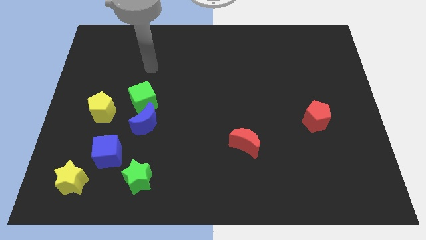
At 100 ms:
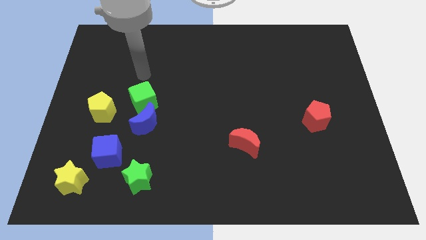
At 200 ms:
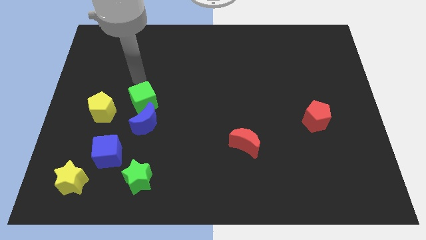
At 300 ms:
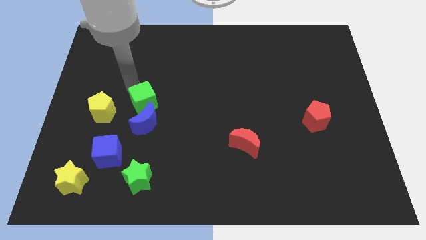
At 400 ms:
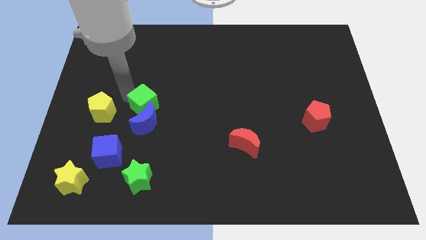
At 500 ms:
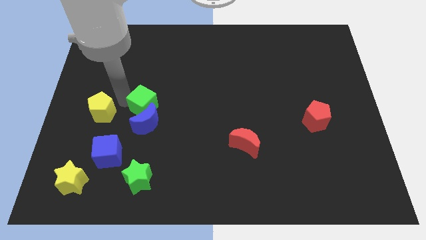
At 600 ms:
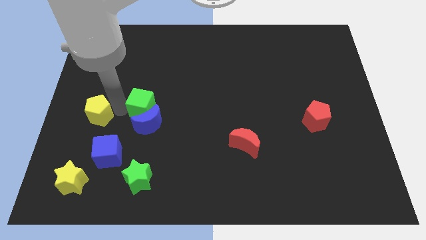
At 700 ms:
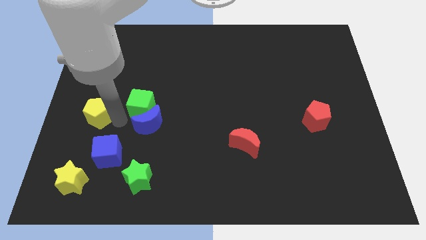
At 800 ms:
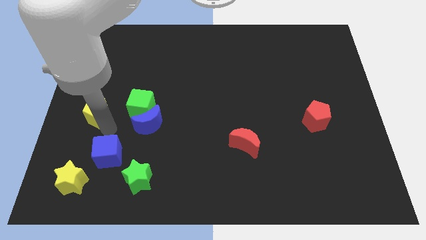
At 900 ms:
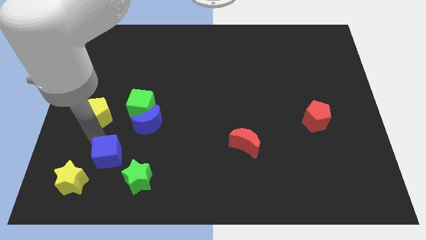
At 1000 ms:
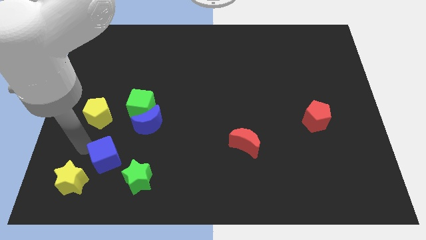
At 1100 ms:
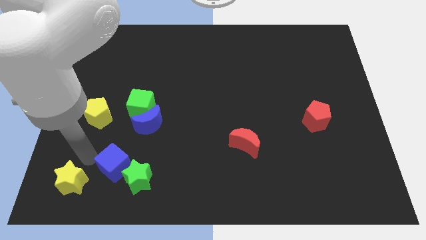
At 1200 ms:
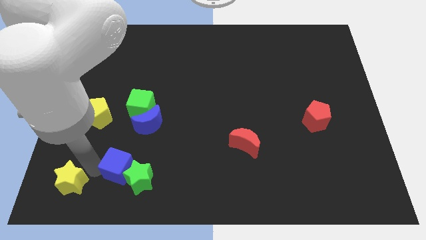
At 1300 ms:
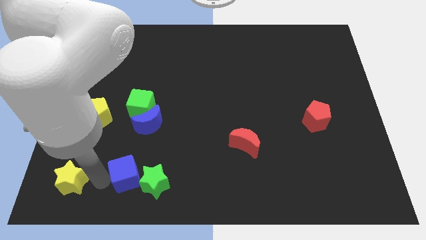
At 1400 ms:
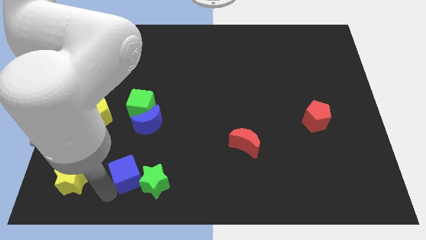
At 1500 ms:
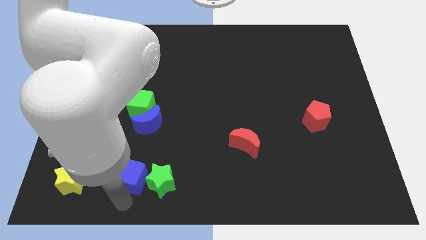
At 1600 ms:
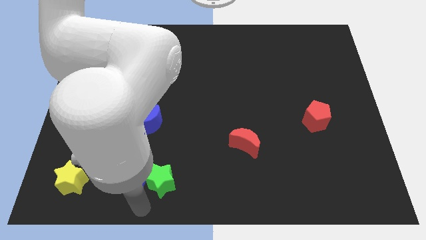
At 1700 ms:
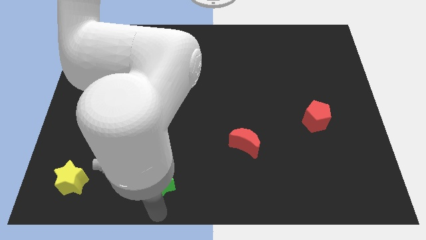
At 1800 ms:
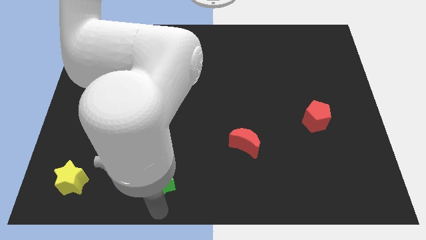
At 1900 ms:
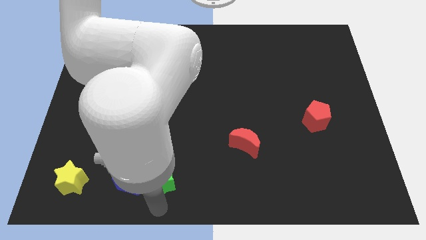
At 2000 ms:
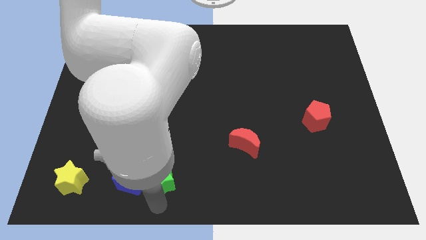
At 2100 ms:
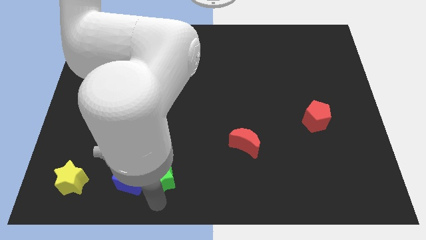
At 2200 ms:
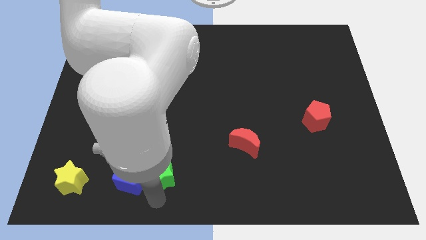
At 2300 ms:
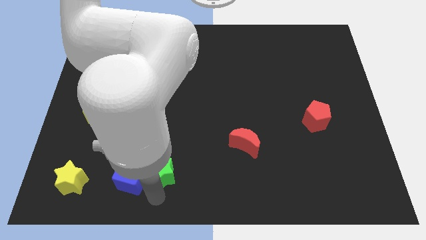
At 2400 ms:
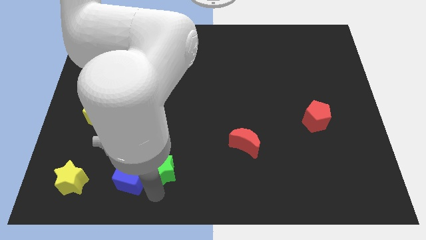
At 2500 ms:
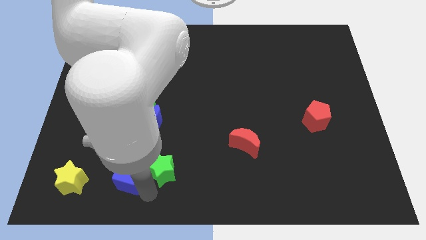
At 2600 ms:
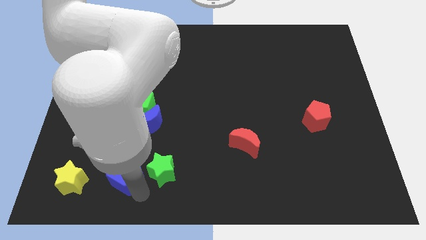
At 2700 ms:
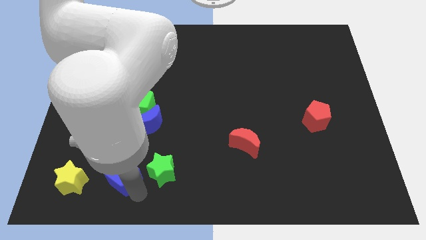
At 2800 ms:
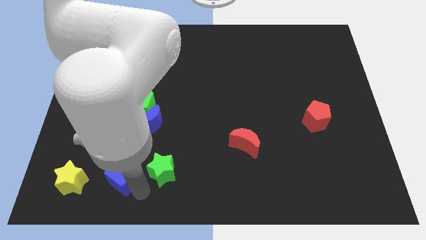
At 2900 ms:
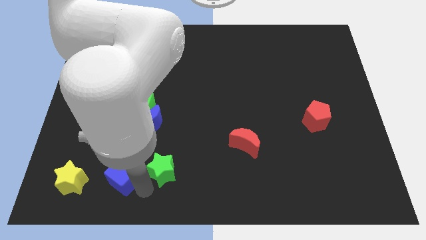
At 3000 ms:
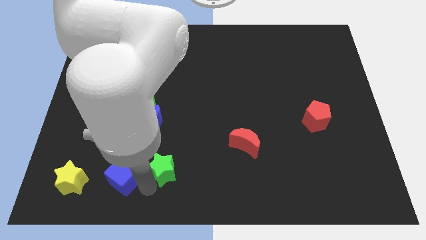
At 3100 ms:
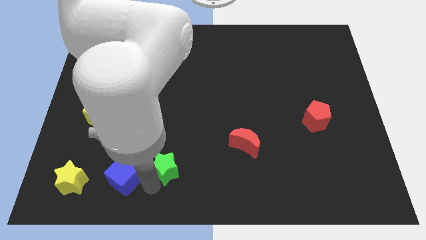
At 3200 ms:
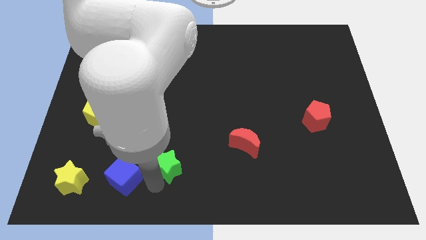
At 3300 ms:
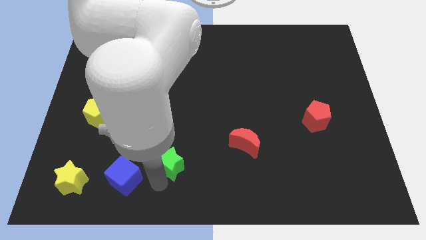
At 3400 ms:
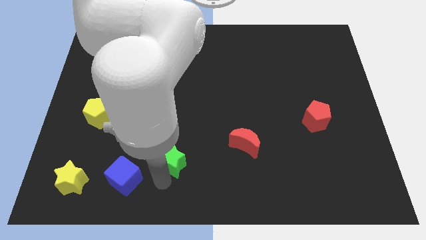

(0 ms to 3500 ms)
push the green star up and right diagonally a little bit

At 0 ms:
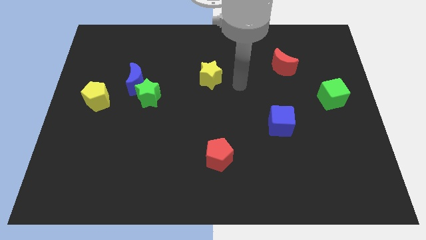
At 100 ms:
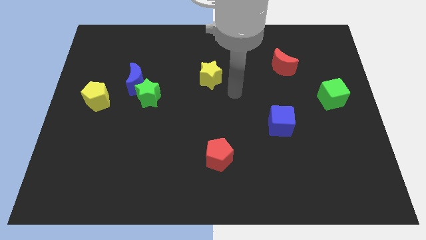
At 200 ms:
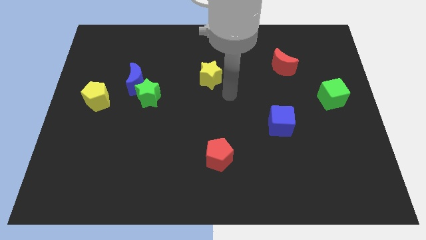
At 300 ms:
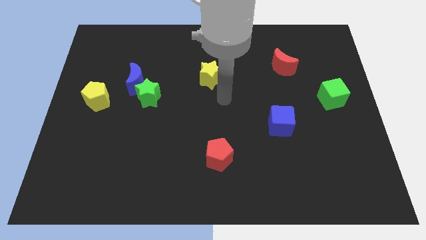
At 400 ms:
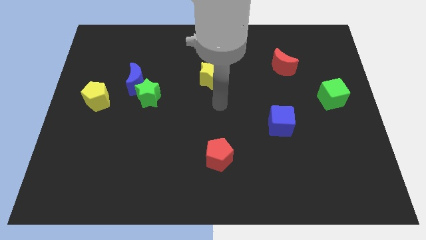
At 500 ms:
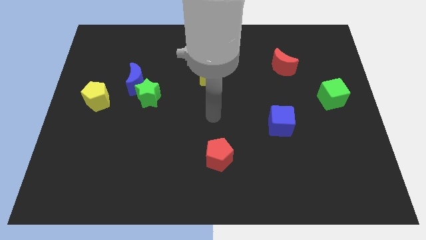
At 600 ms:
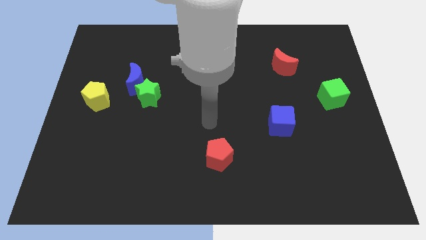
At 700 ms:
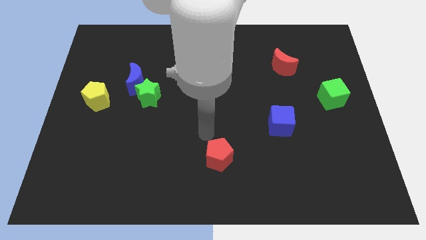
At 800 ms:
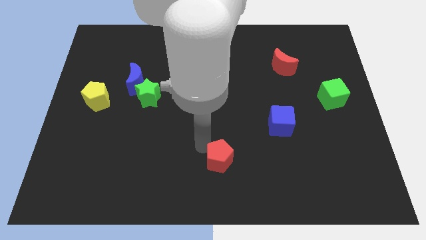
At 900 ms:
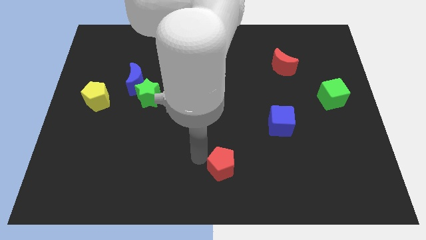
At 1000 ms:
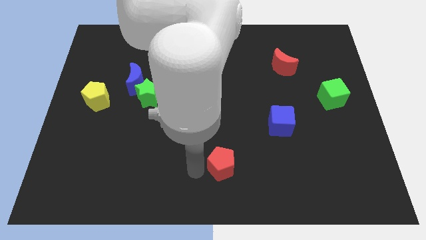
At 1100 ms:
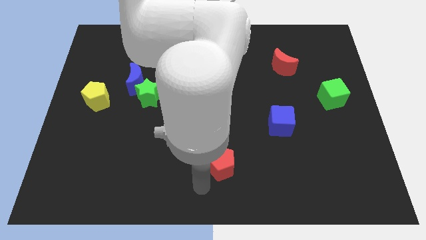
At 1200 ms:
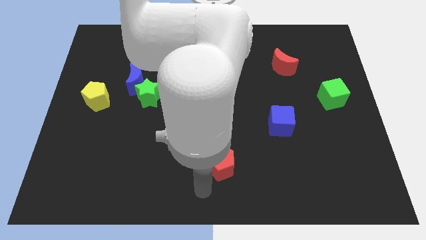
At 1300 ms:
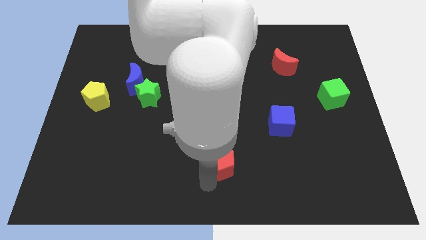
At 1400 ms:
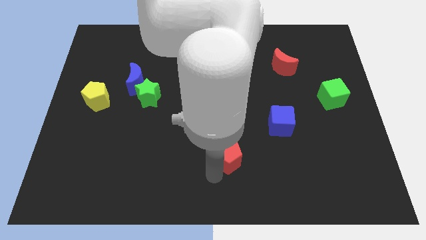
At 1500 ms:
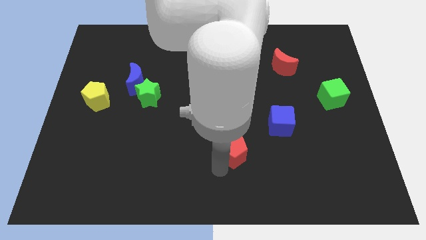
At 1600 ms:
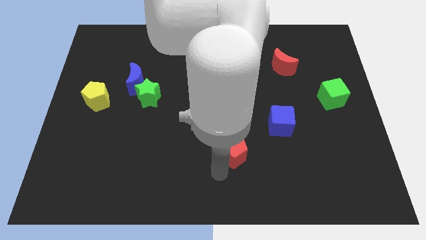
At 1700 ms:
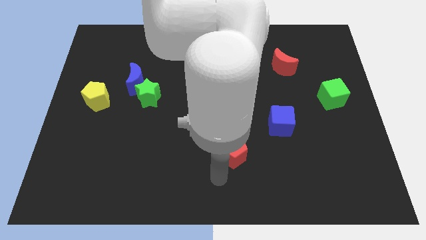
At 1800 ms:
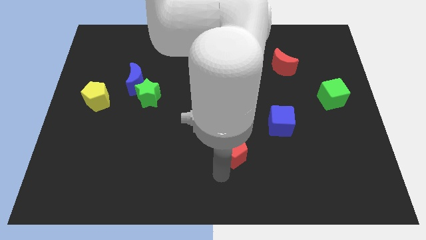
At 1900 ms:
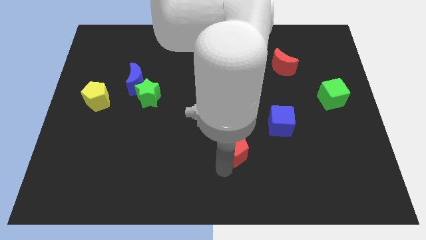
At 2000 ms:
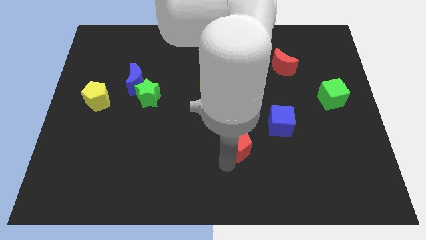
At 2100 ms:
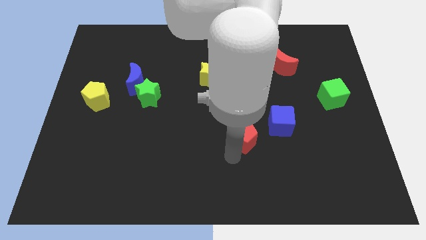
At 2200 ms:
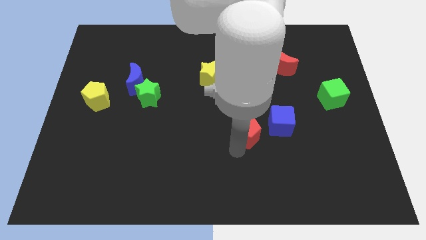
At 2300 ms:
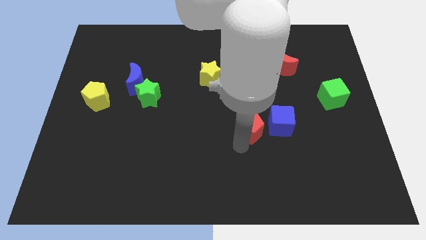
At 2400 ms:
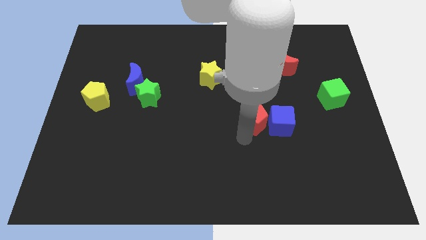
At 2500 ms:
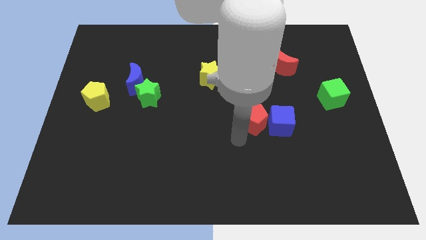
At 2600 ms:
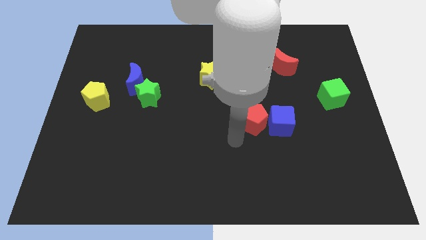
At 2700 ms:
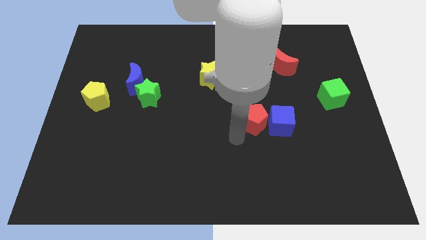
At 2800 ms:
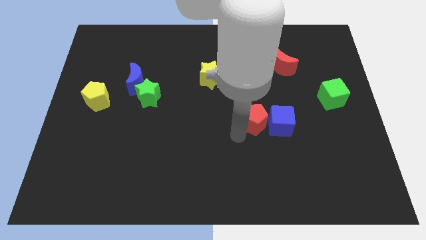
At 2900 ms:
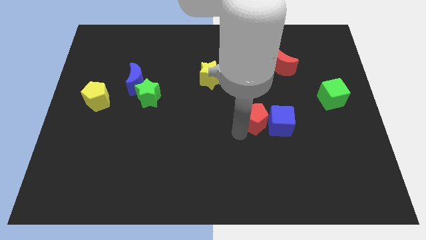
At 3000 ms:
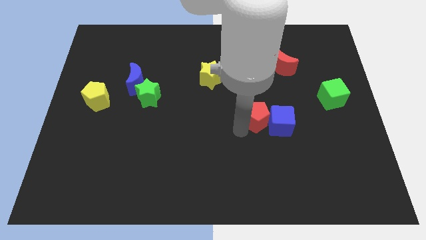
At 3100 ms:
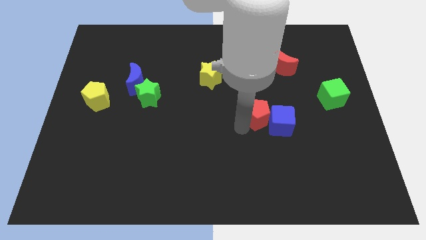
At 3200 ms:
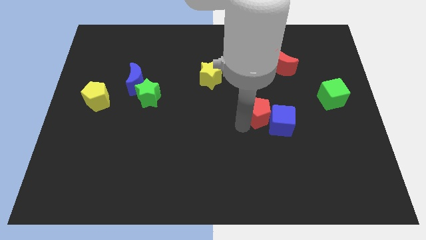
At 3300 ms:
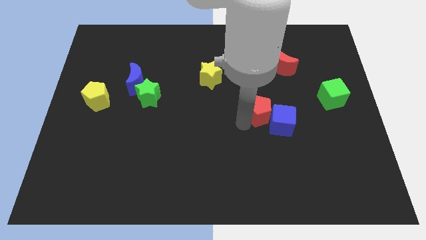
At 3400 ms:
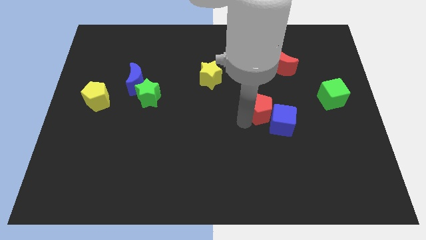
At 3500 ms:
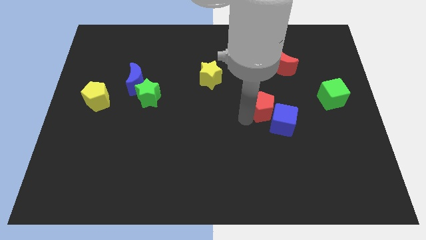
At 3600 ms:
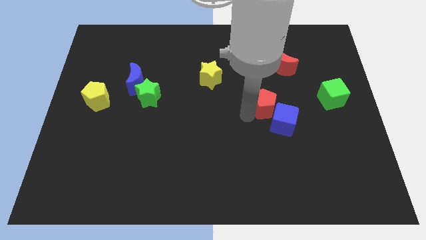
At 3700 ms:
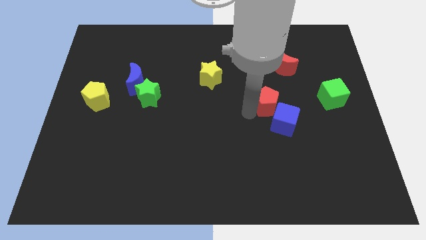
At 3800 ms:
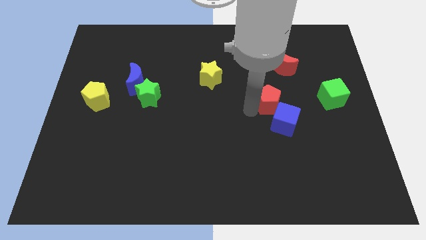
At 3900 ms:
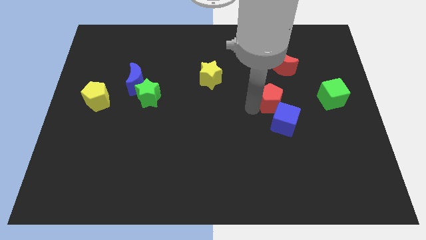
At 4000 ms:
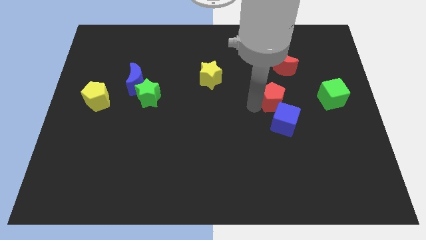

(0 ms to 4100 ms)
slide the red pentagon up and then to the right

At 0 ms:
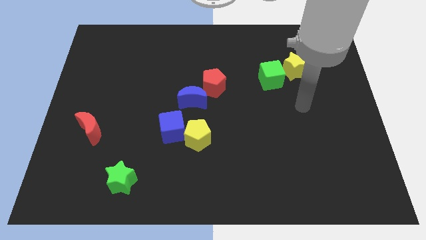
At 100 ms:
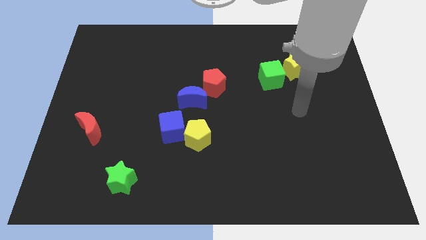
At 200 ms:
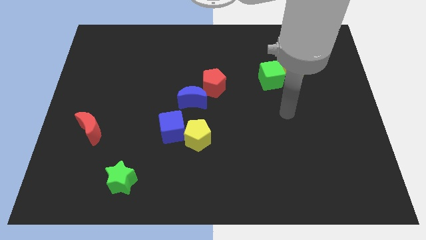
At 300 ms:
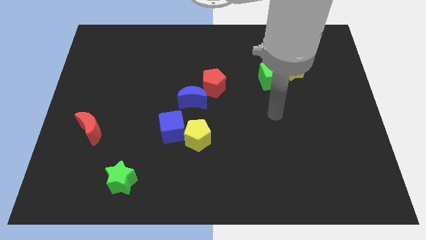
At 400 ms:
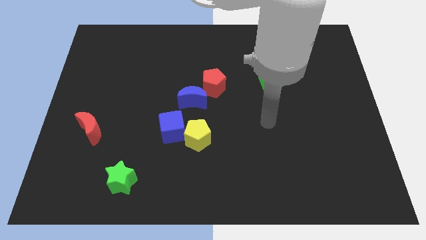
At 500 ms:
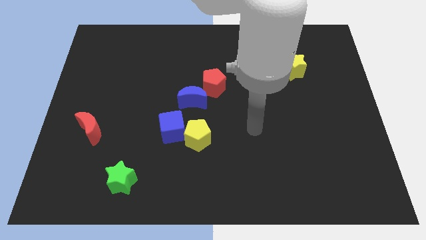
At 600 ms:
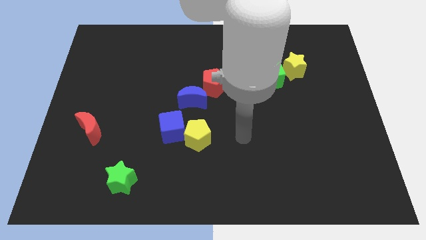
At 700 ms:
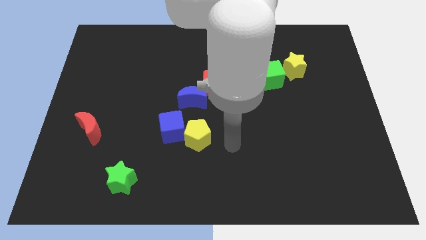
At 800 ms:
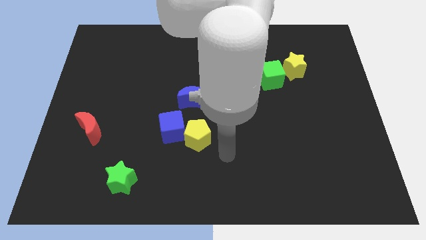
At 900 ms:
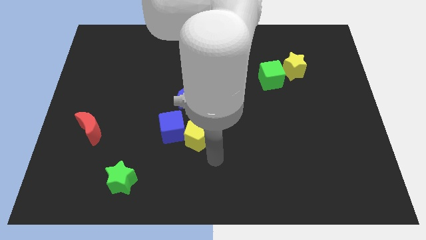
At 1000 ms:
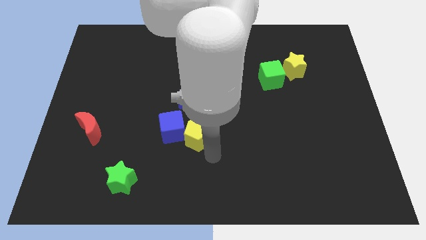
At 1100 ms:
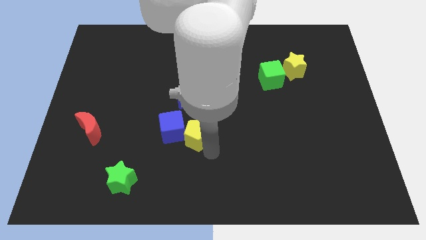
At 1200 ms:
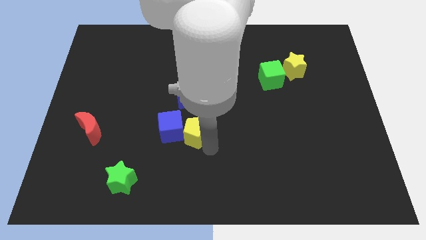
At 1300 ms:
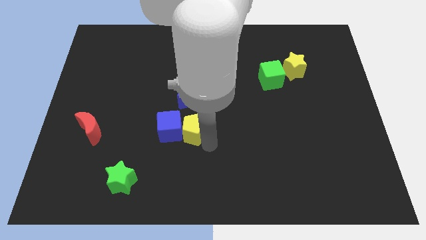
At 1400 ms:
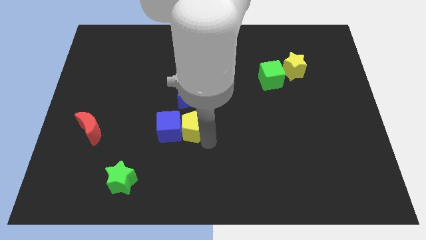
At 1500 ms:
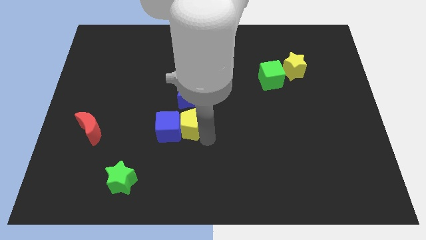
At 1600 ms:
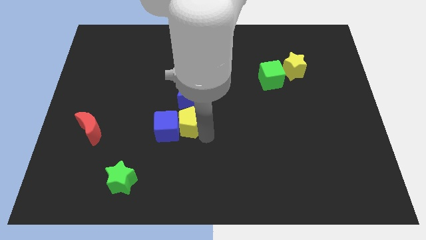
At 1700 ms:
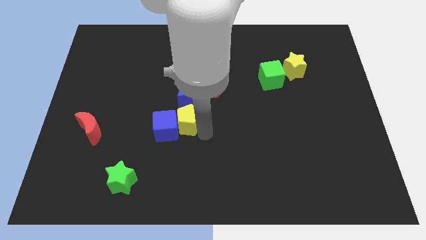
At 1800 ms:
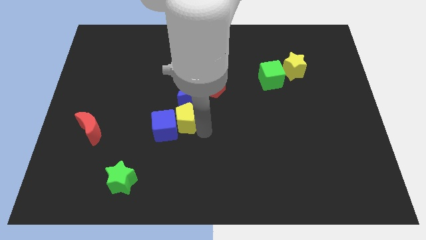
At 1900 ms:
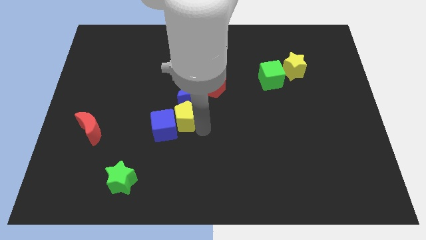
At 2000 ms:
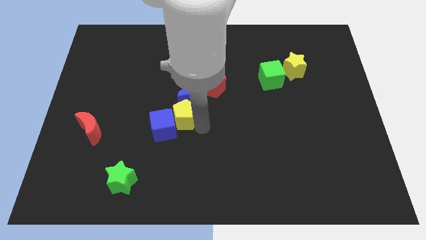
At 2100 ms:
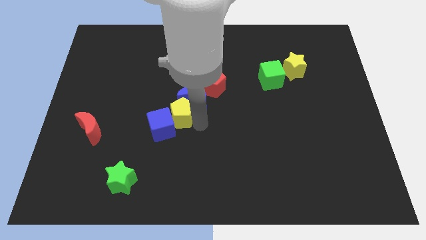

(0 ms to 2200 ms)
slightly move the yellow pentagon diagonally up and left
